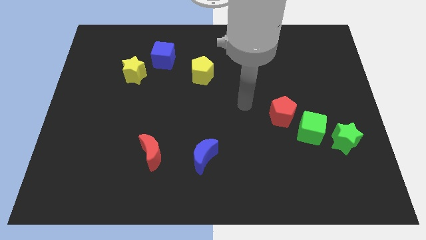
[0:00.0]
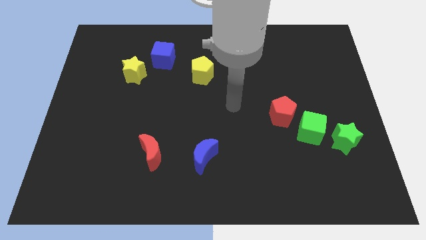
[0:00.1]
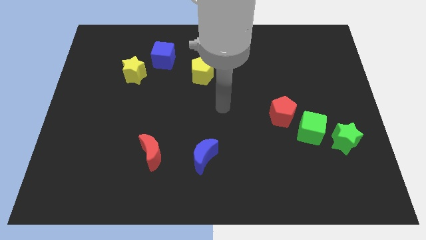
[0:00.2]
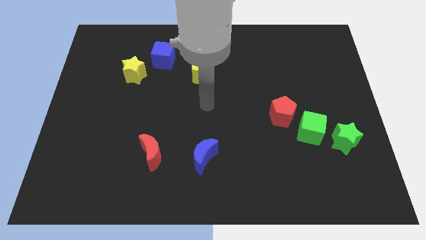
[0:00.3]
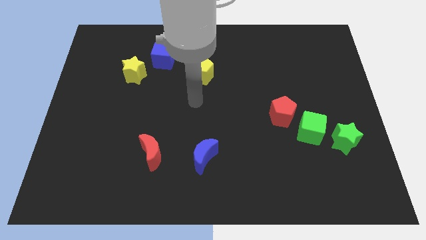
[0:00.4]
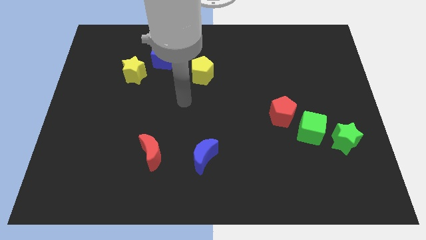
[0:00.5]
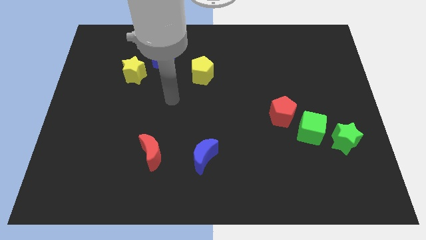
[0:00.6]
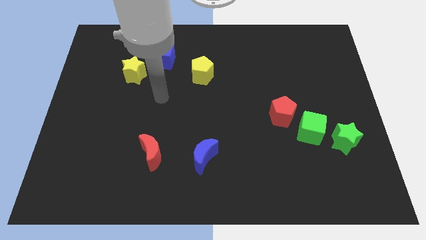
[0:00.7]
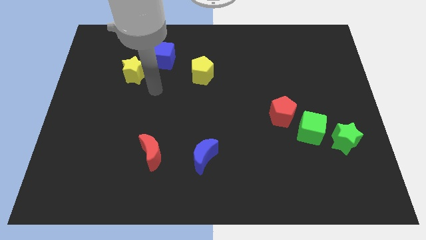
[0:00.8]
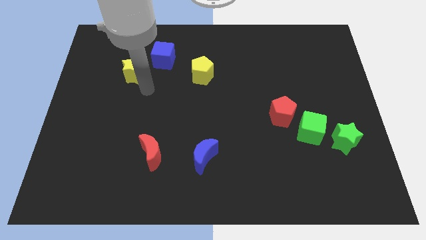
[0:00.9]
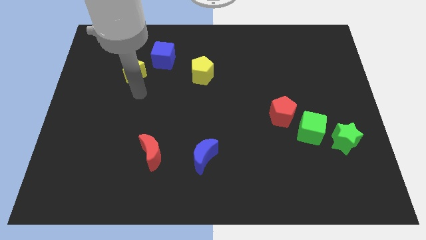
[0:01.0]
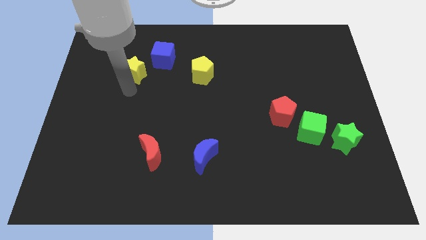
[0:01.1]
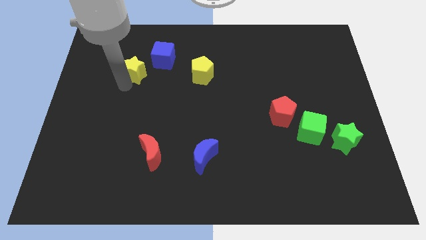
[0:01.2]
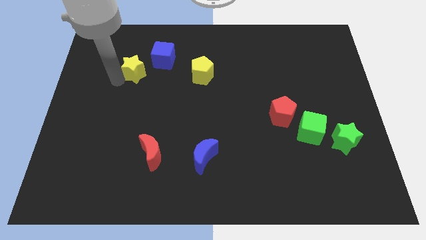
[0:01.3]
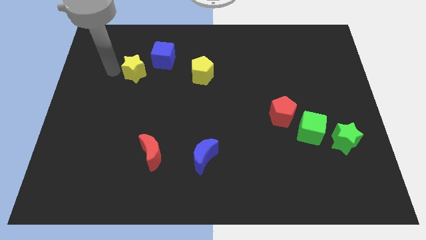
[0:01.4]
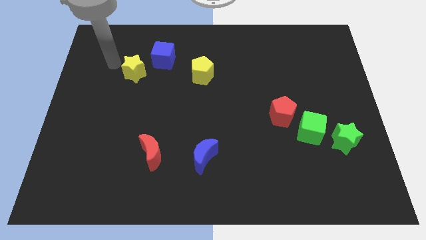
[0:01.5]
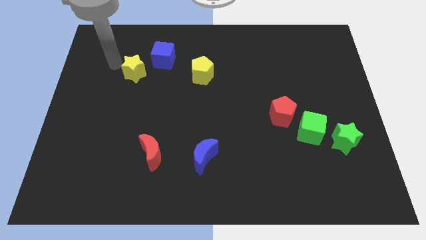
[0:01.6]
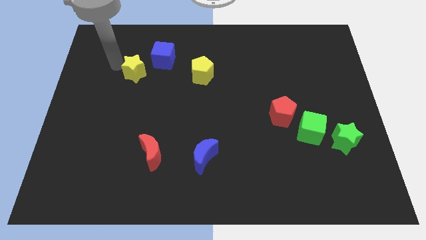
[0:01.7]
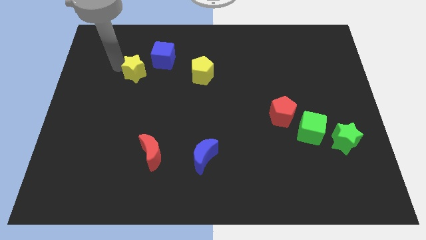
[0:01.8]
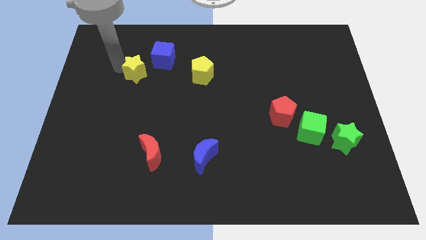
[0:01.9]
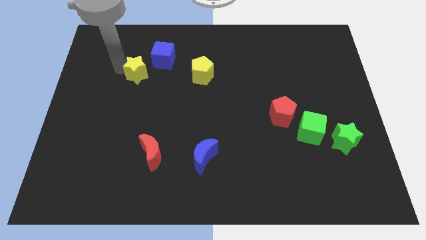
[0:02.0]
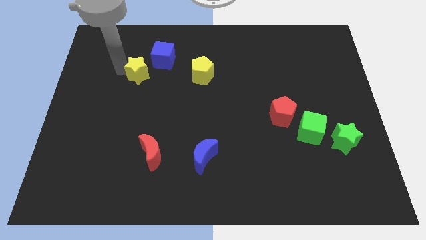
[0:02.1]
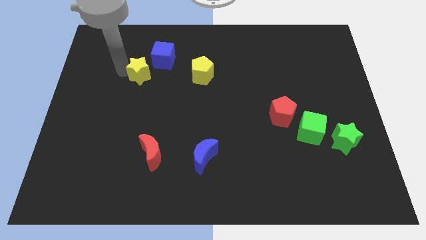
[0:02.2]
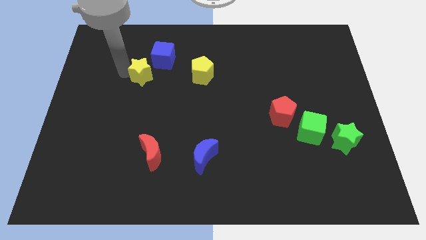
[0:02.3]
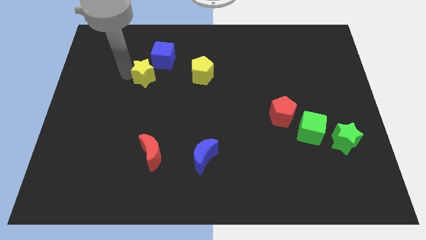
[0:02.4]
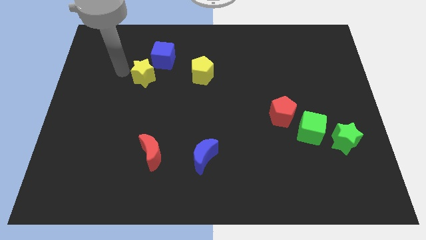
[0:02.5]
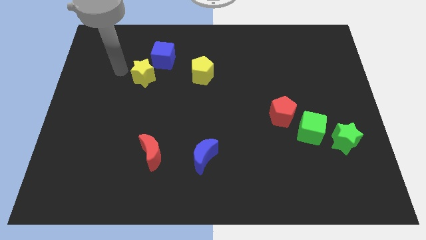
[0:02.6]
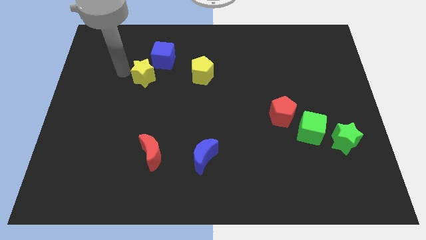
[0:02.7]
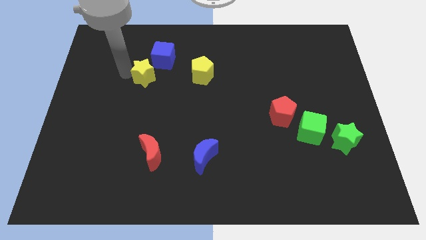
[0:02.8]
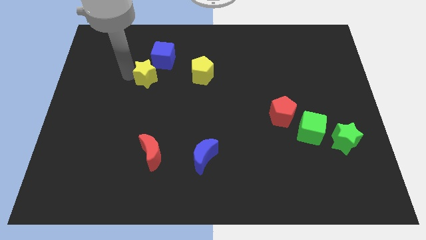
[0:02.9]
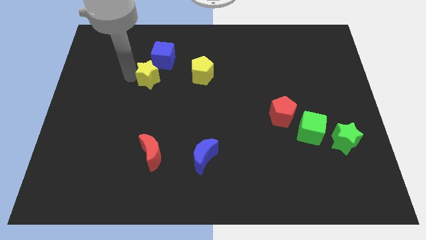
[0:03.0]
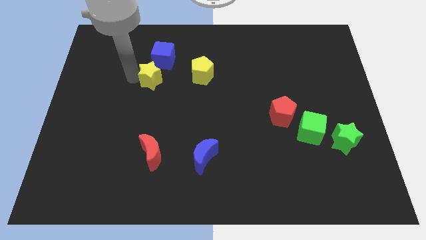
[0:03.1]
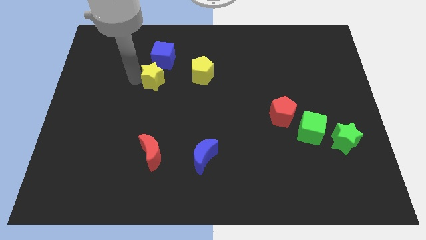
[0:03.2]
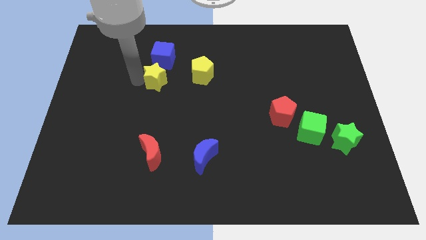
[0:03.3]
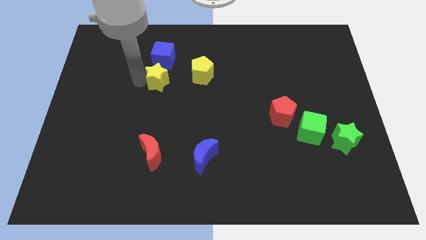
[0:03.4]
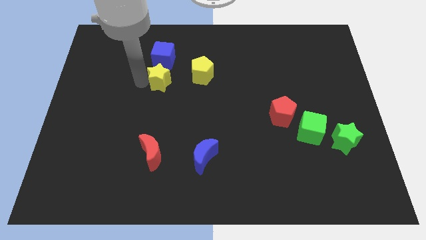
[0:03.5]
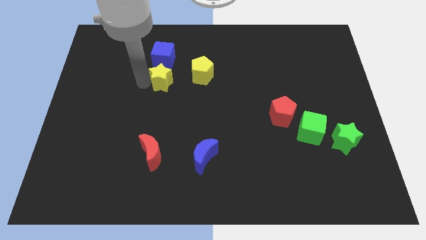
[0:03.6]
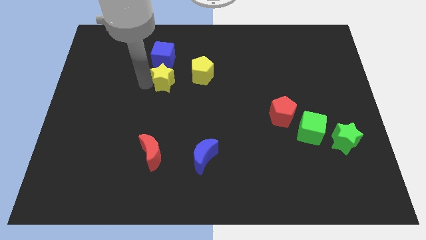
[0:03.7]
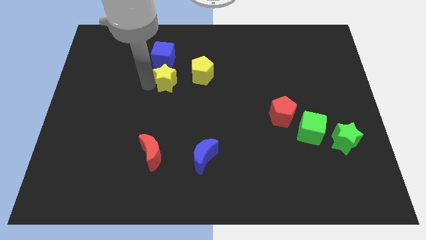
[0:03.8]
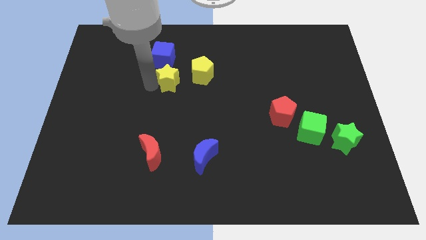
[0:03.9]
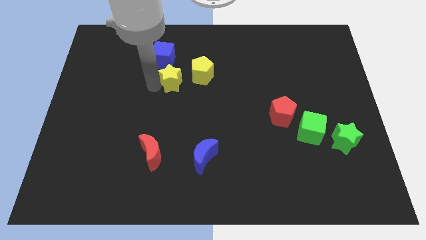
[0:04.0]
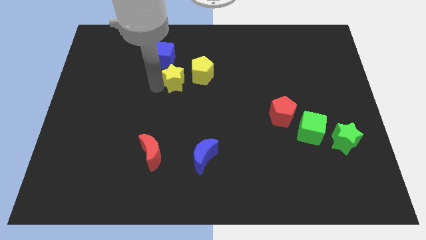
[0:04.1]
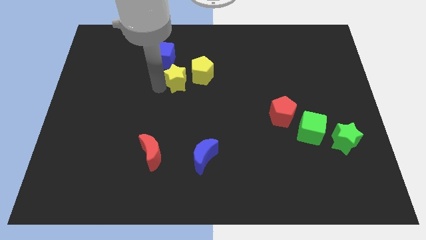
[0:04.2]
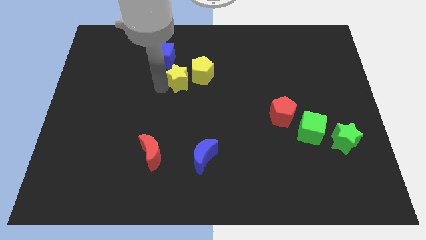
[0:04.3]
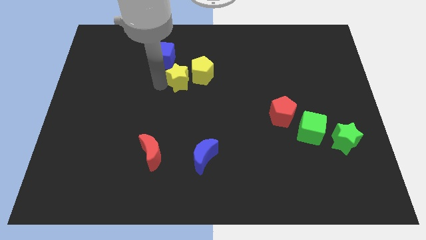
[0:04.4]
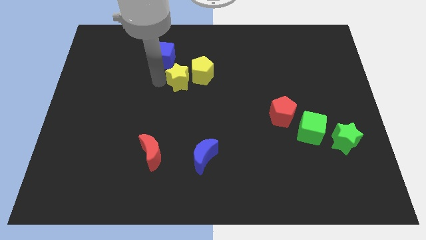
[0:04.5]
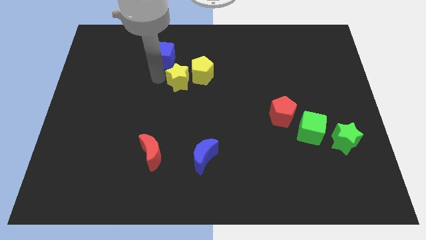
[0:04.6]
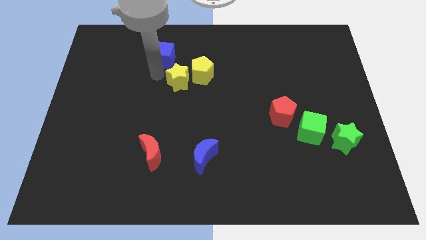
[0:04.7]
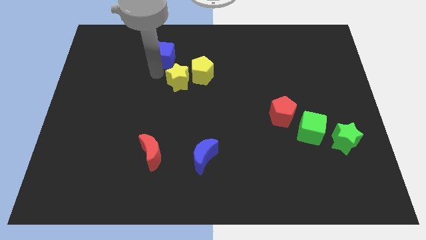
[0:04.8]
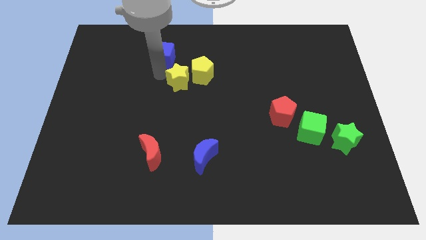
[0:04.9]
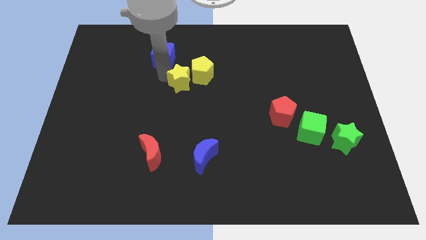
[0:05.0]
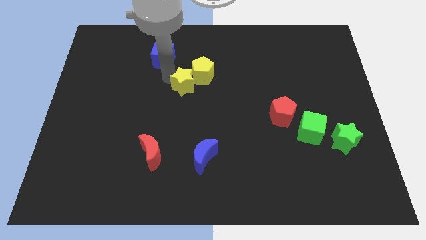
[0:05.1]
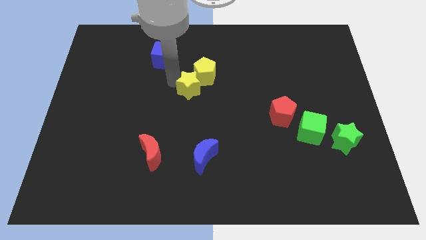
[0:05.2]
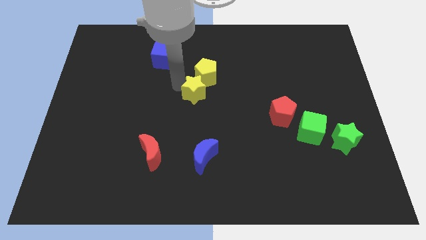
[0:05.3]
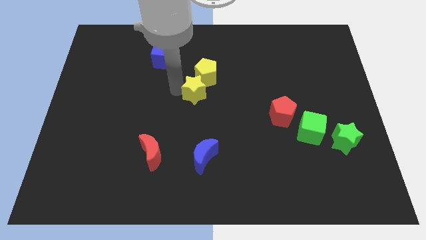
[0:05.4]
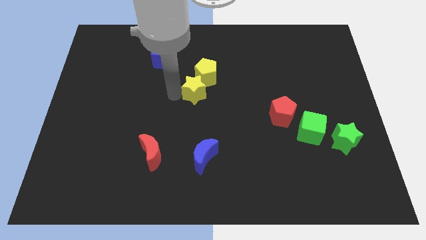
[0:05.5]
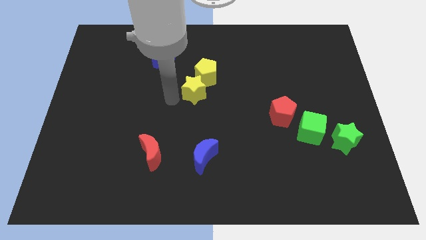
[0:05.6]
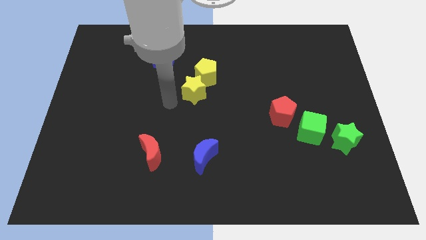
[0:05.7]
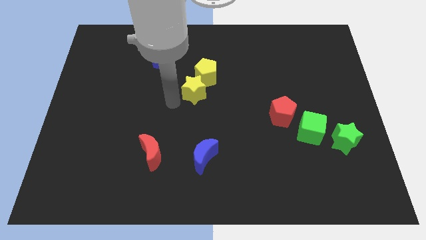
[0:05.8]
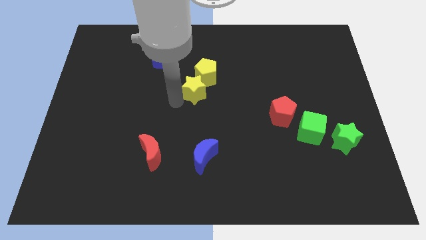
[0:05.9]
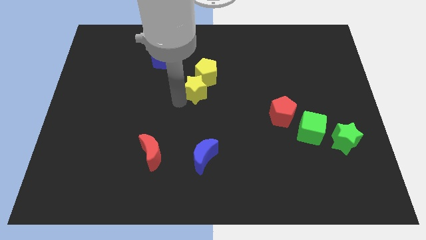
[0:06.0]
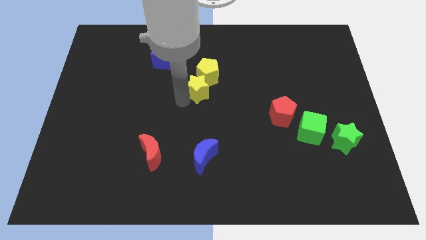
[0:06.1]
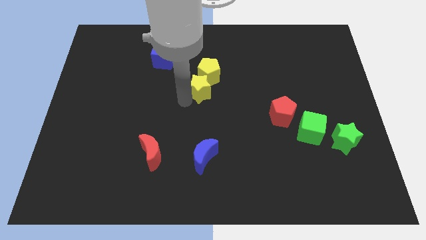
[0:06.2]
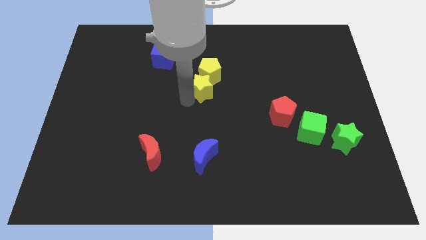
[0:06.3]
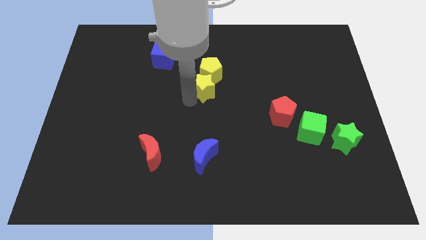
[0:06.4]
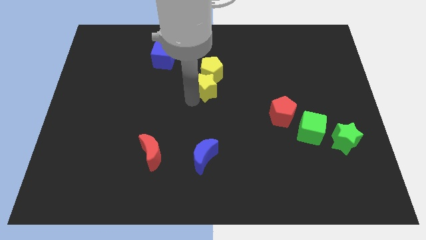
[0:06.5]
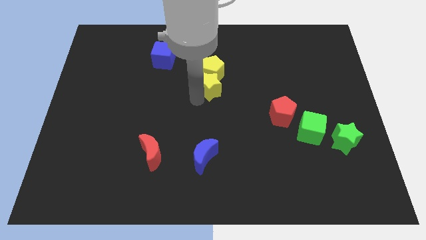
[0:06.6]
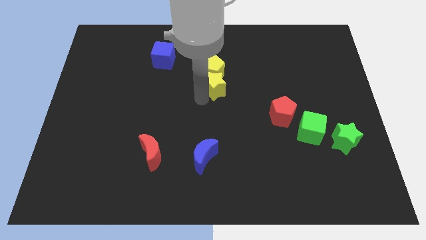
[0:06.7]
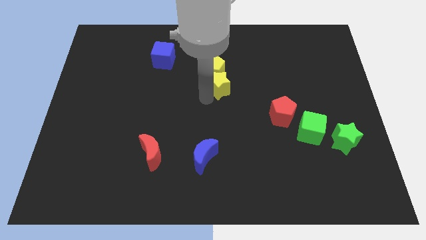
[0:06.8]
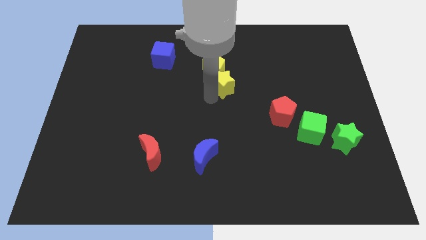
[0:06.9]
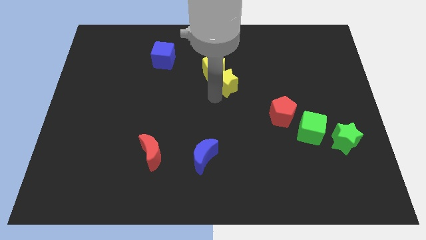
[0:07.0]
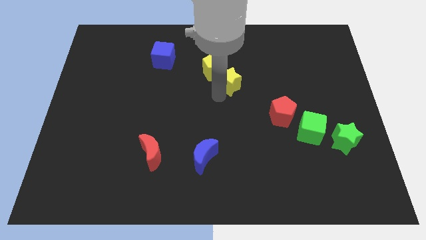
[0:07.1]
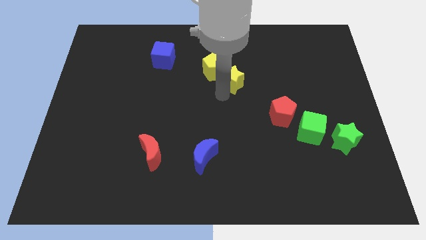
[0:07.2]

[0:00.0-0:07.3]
move the yellow star just right of the yellow pentagon
